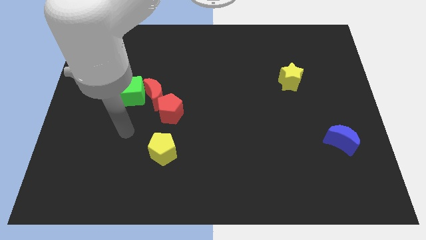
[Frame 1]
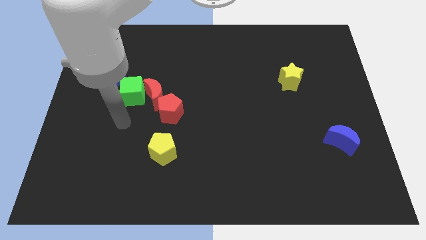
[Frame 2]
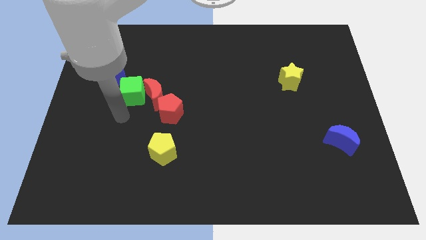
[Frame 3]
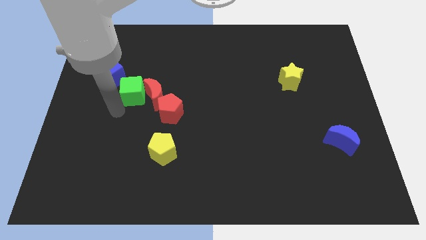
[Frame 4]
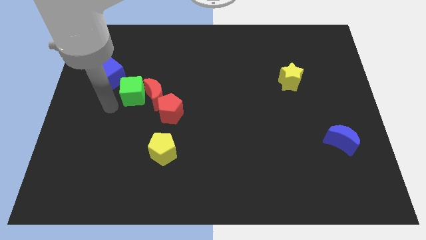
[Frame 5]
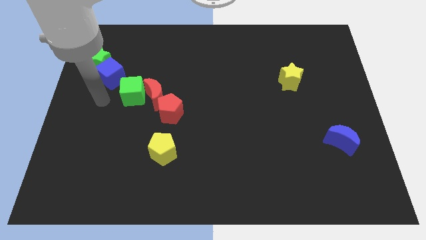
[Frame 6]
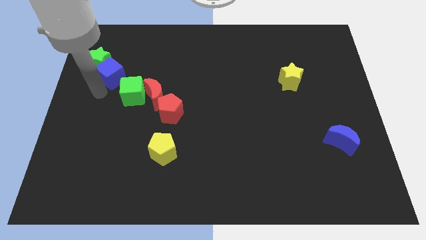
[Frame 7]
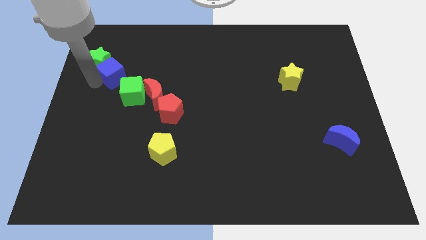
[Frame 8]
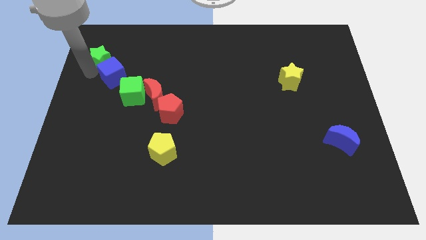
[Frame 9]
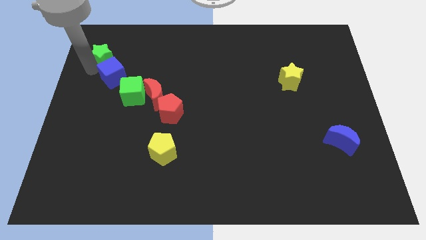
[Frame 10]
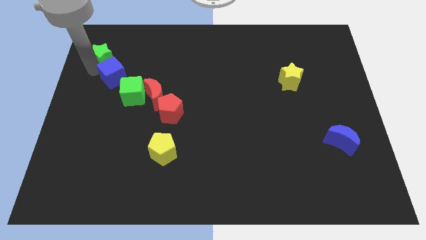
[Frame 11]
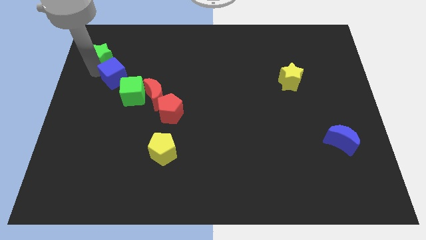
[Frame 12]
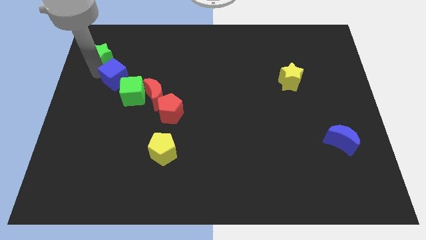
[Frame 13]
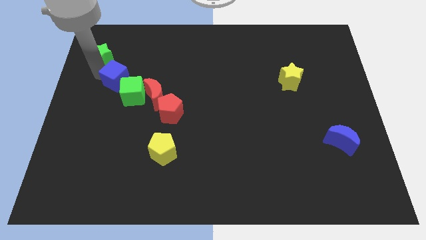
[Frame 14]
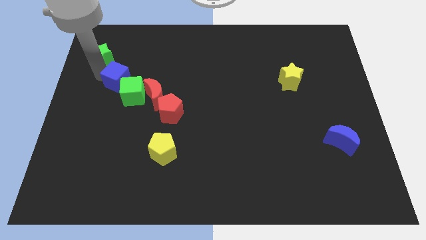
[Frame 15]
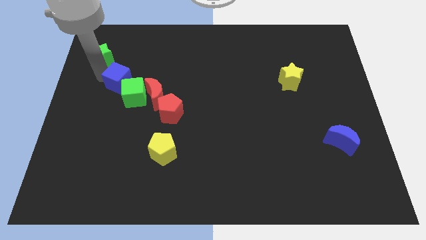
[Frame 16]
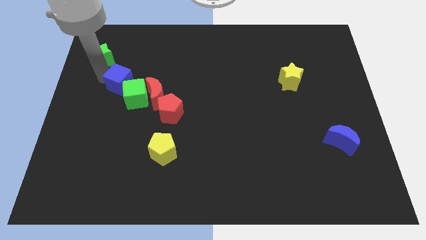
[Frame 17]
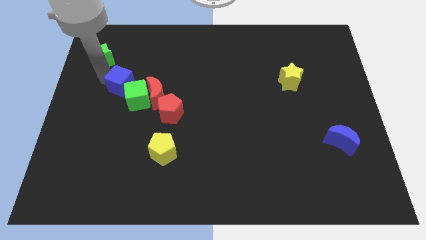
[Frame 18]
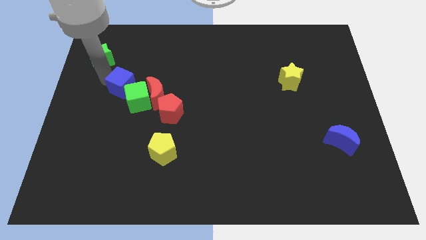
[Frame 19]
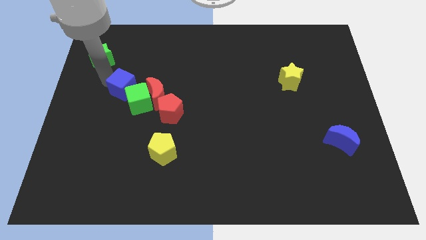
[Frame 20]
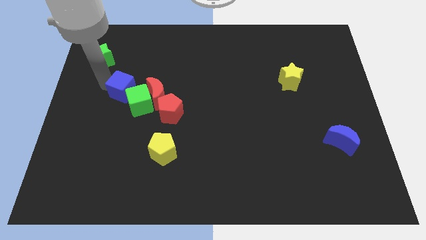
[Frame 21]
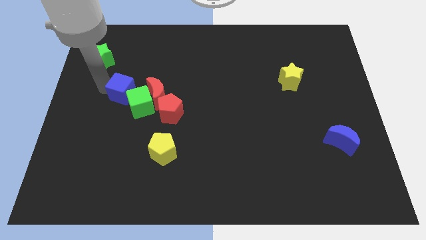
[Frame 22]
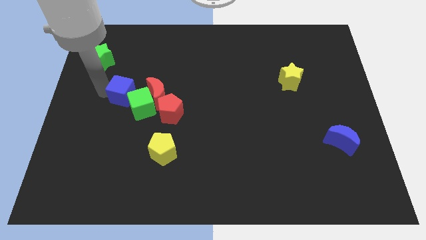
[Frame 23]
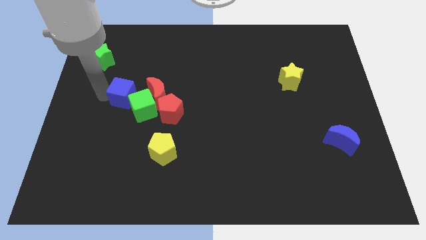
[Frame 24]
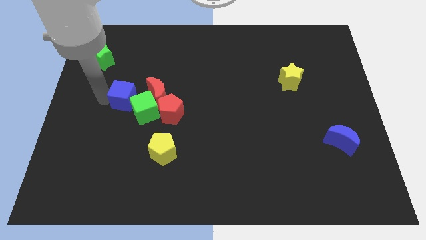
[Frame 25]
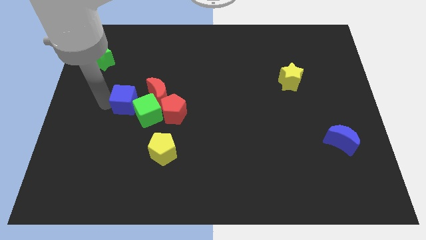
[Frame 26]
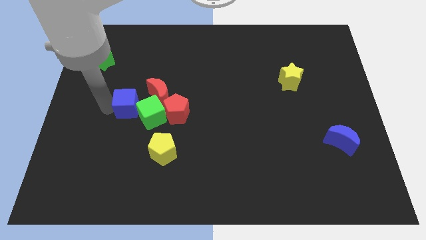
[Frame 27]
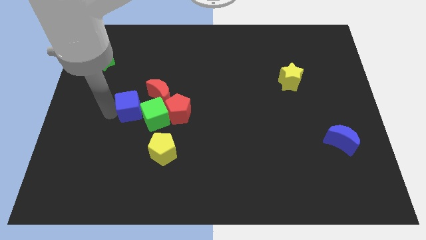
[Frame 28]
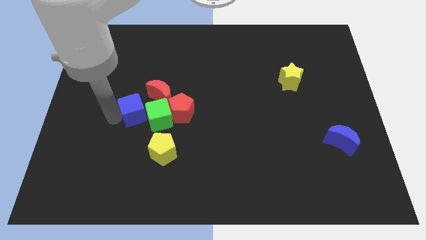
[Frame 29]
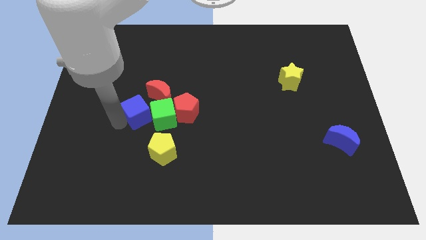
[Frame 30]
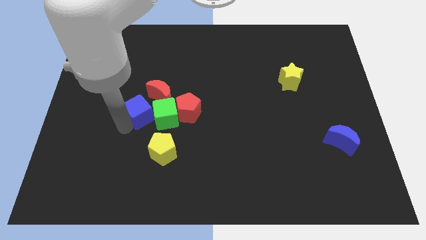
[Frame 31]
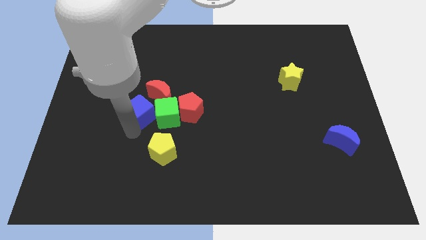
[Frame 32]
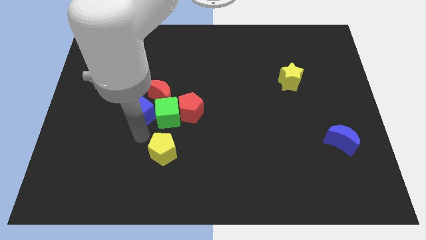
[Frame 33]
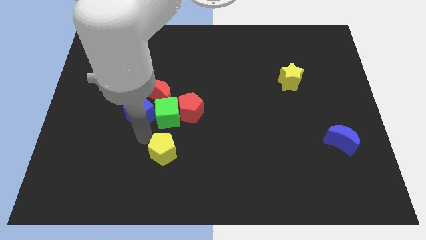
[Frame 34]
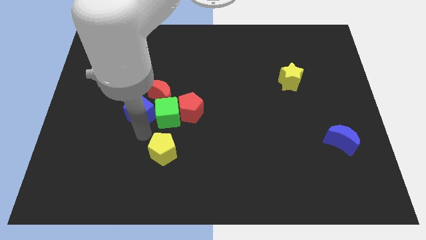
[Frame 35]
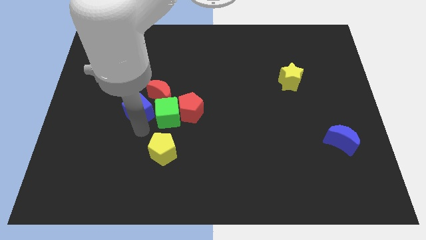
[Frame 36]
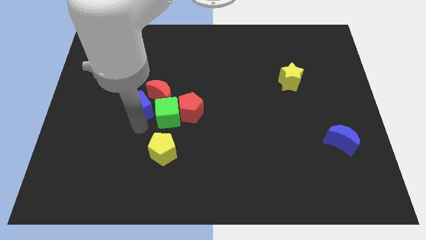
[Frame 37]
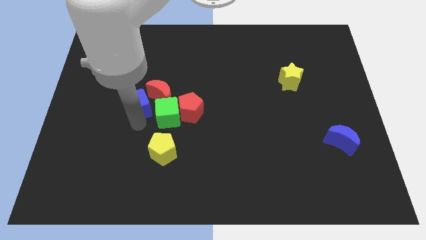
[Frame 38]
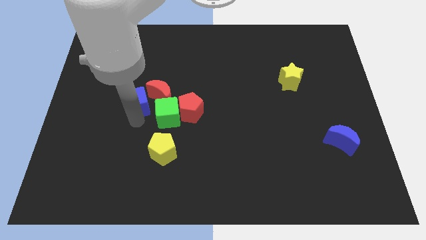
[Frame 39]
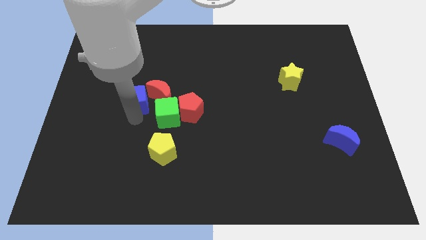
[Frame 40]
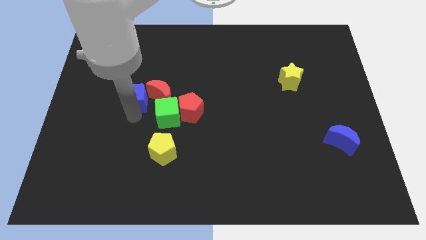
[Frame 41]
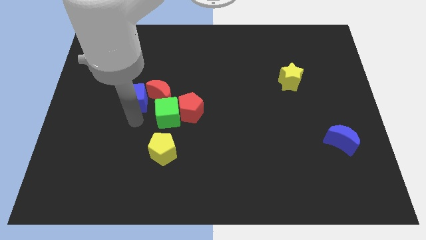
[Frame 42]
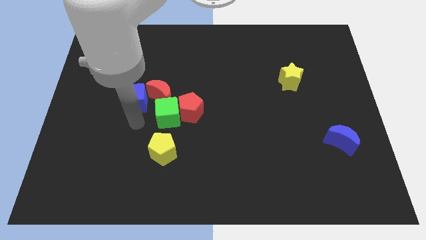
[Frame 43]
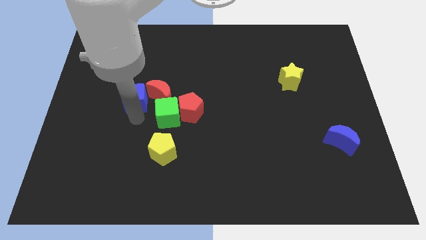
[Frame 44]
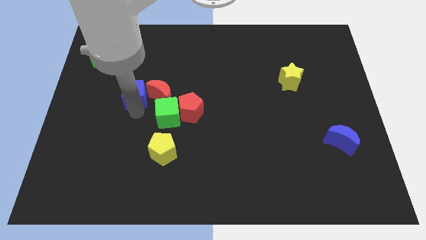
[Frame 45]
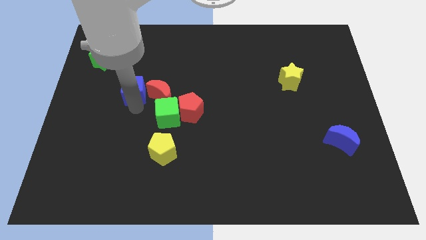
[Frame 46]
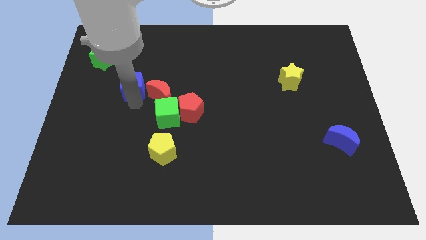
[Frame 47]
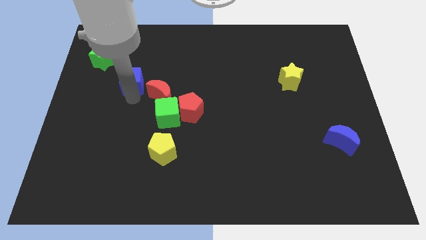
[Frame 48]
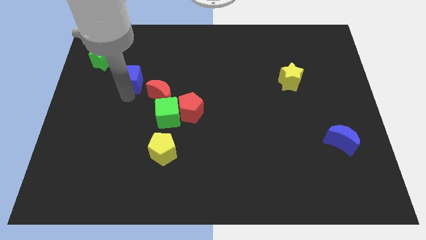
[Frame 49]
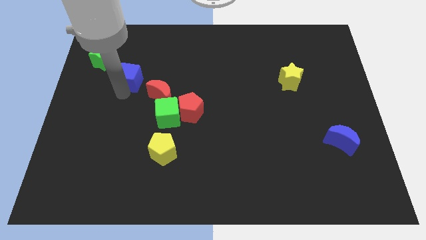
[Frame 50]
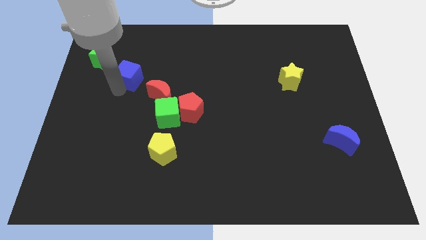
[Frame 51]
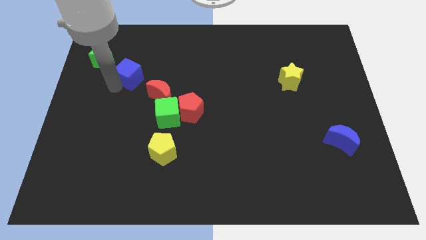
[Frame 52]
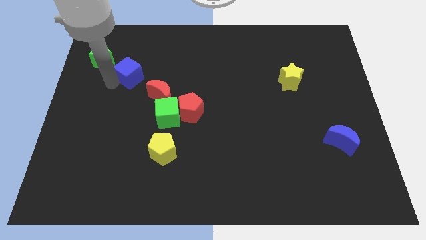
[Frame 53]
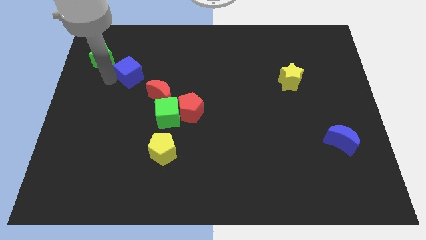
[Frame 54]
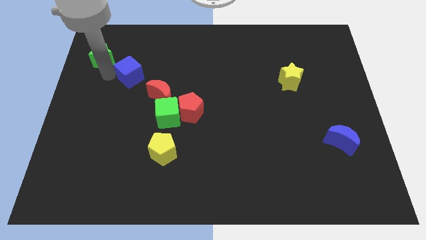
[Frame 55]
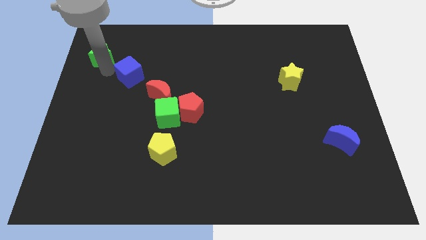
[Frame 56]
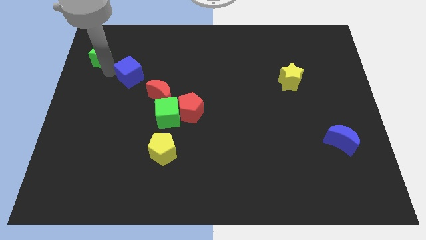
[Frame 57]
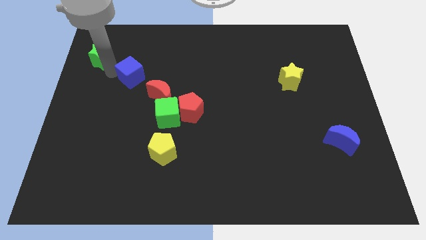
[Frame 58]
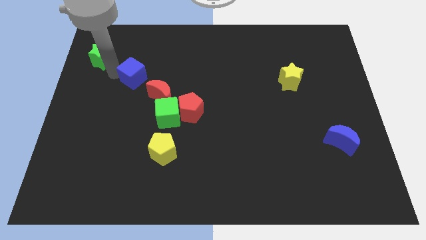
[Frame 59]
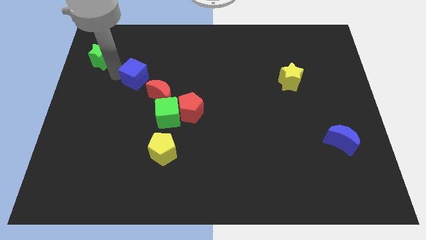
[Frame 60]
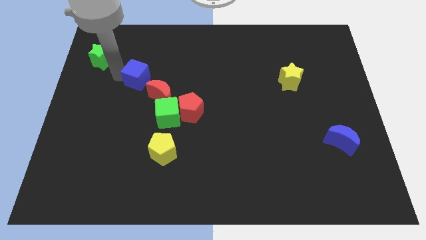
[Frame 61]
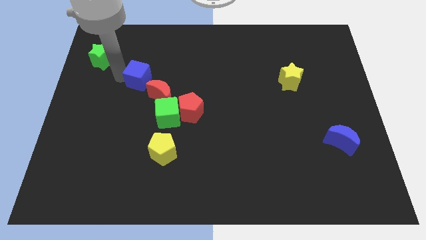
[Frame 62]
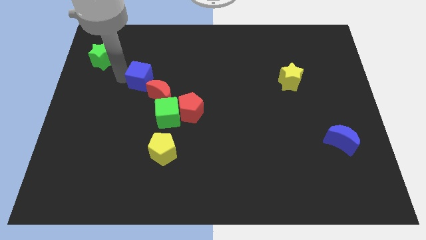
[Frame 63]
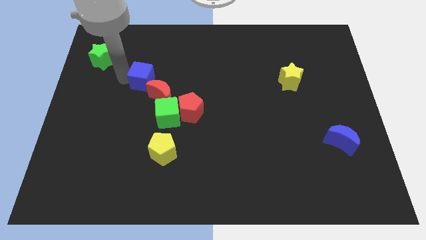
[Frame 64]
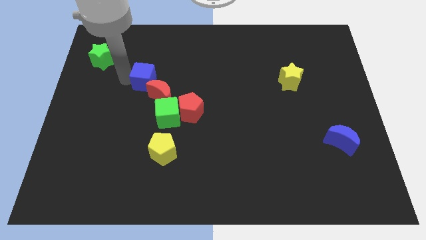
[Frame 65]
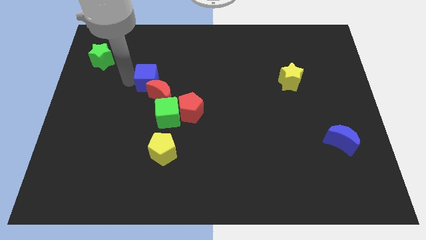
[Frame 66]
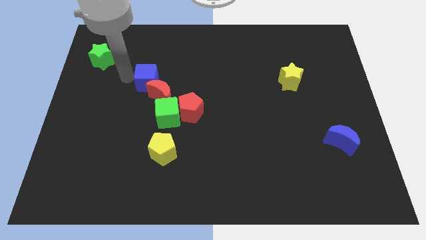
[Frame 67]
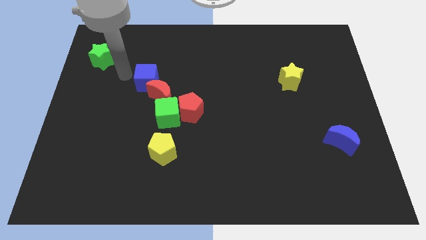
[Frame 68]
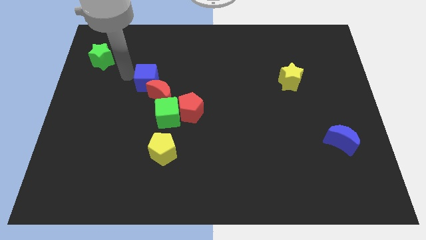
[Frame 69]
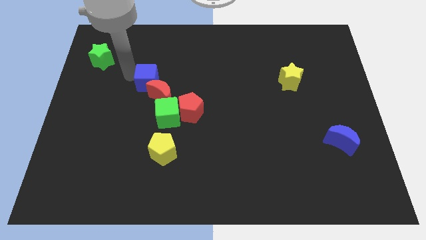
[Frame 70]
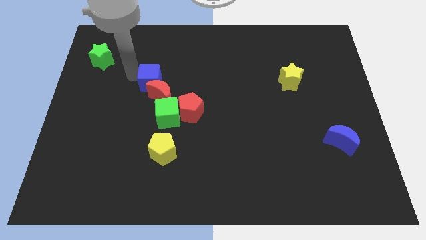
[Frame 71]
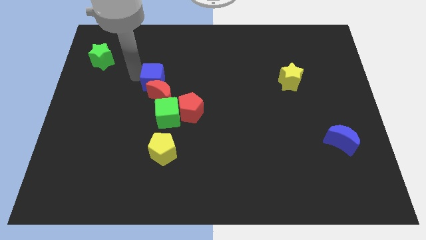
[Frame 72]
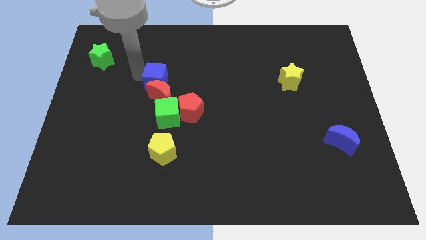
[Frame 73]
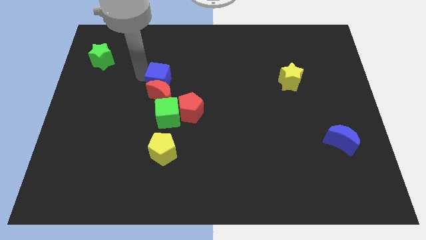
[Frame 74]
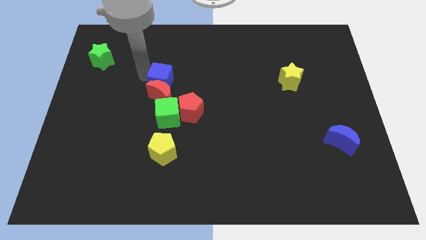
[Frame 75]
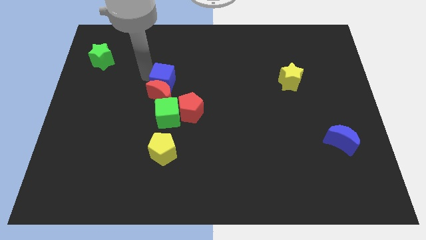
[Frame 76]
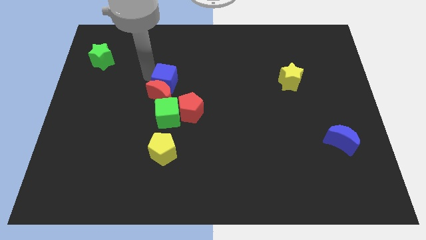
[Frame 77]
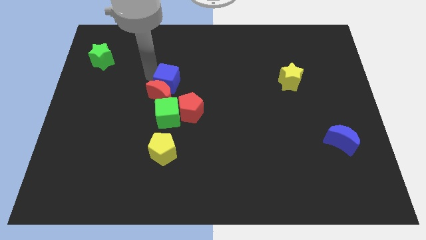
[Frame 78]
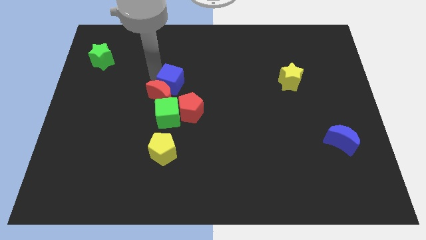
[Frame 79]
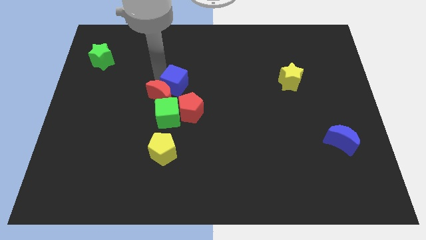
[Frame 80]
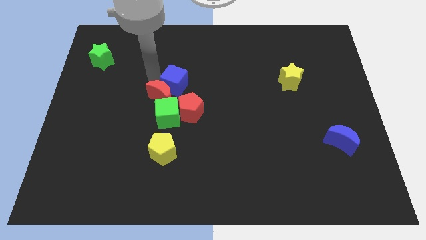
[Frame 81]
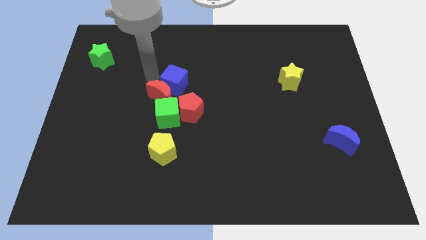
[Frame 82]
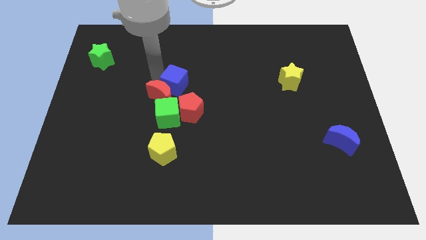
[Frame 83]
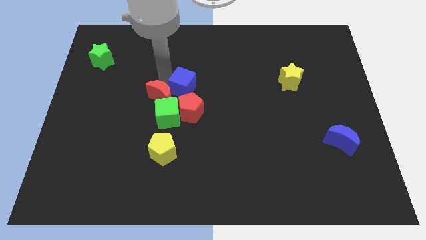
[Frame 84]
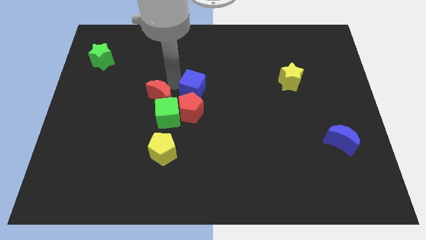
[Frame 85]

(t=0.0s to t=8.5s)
slide the blue cube to the top right side of the red pentagon
